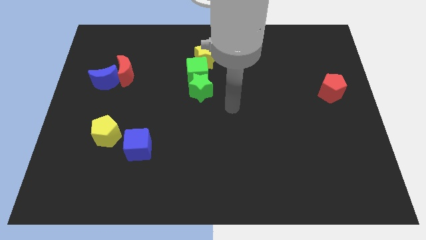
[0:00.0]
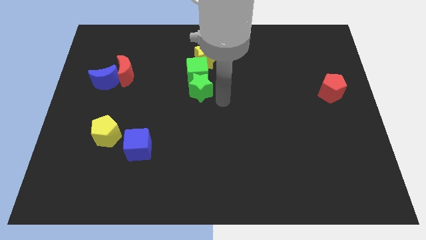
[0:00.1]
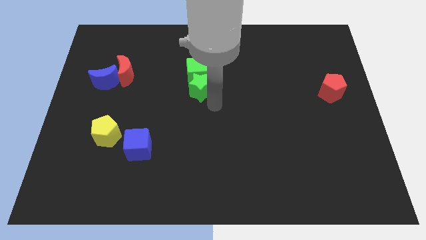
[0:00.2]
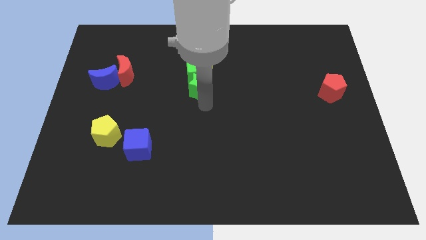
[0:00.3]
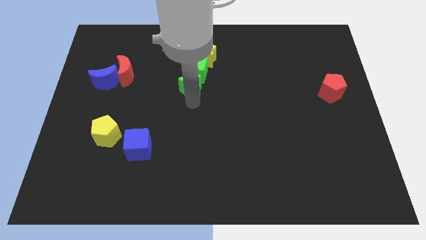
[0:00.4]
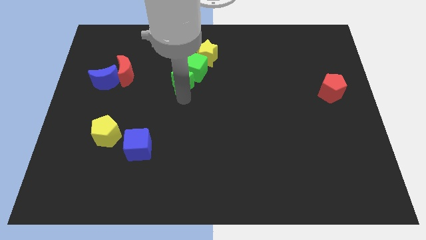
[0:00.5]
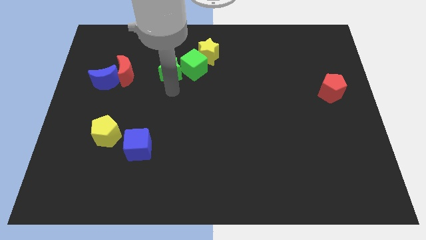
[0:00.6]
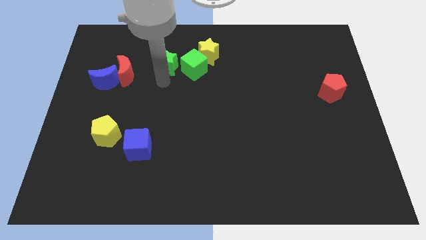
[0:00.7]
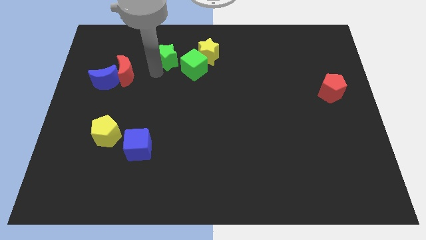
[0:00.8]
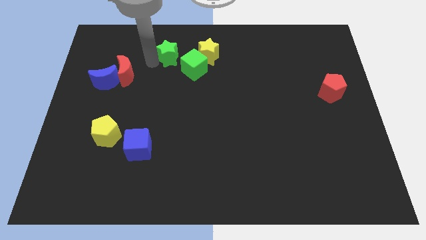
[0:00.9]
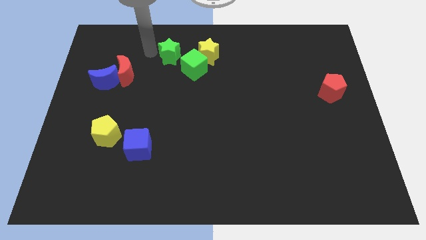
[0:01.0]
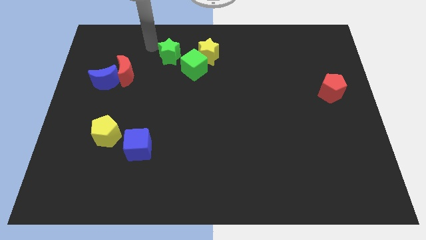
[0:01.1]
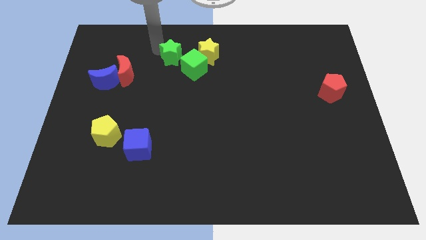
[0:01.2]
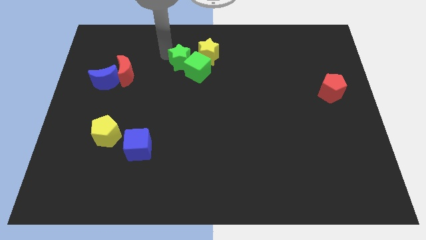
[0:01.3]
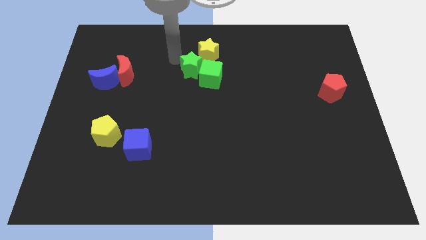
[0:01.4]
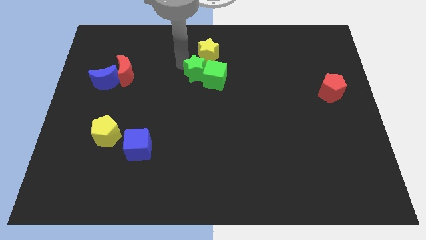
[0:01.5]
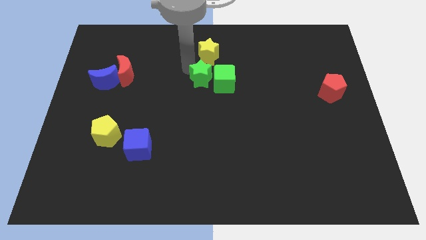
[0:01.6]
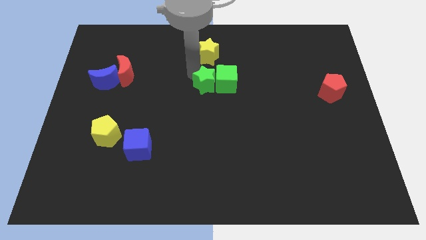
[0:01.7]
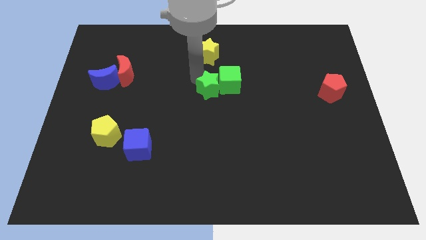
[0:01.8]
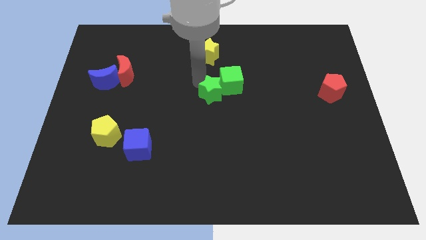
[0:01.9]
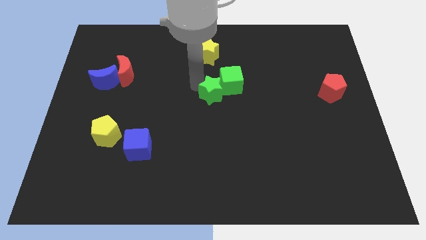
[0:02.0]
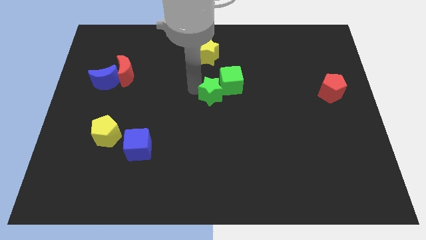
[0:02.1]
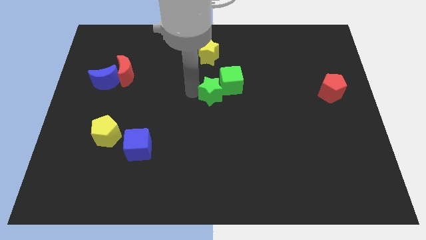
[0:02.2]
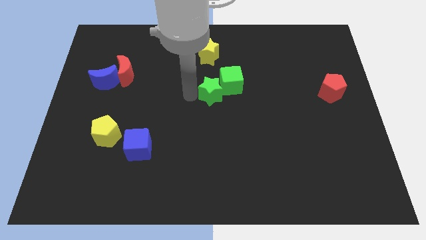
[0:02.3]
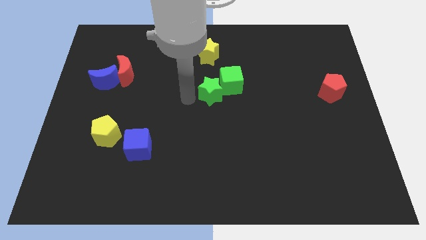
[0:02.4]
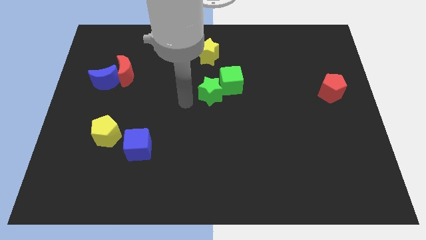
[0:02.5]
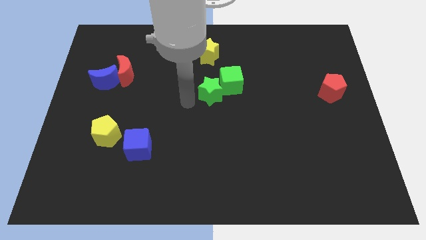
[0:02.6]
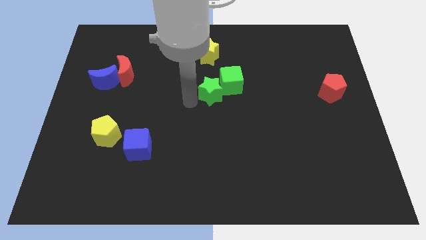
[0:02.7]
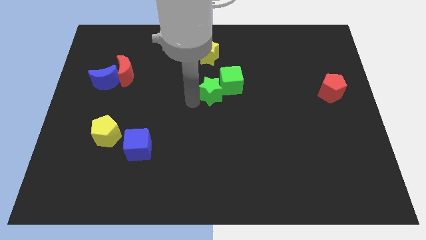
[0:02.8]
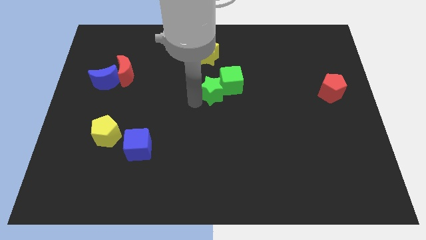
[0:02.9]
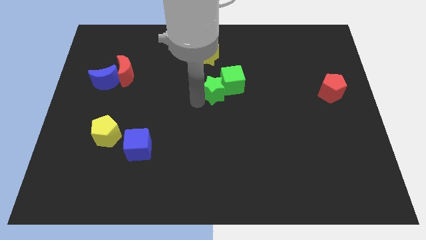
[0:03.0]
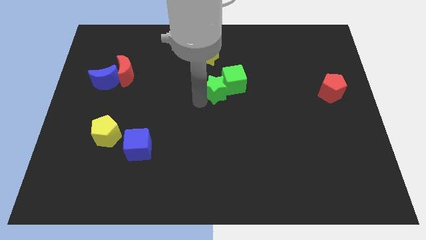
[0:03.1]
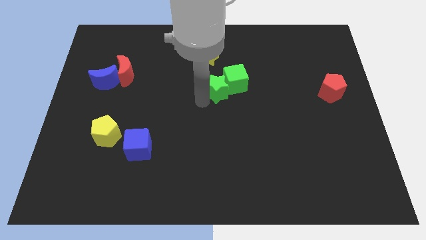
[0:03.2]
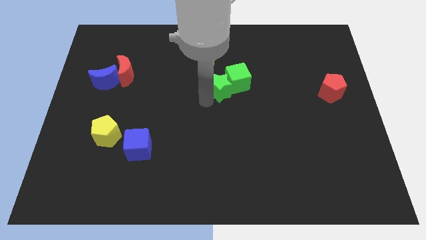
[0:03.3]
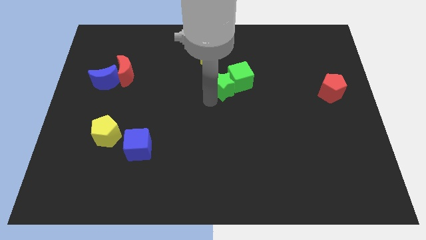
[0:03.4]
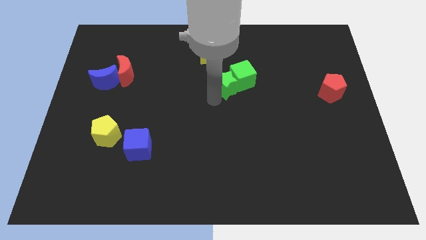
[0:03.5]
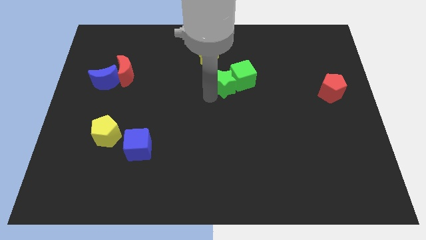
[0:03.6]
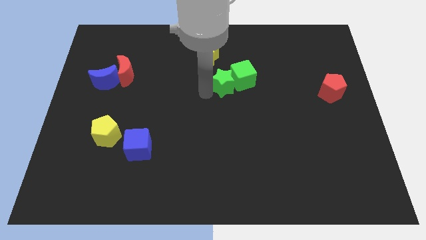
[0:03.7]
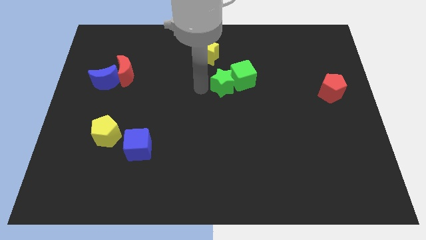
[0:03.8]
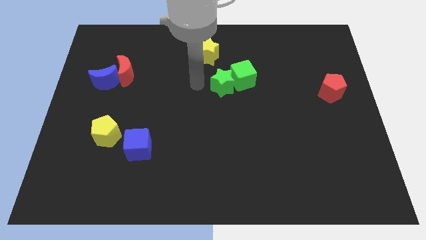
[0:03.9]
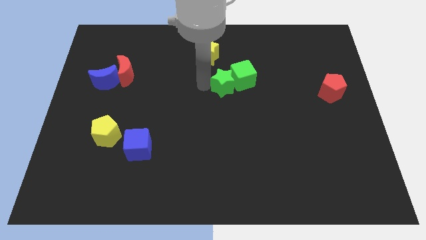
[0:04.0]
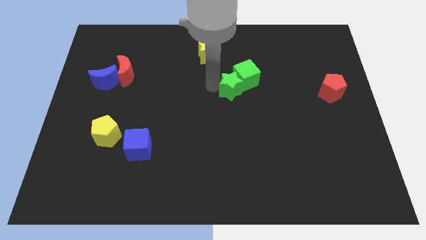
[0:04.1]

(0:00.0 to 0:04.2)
slightly slide the green star right

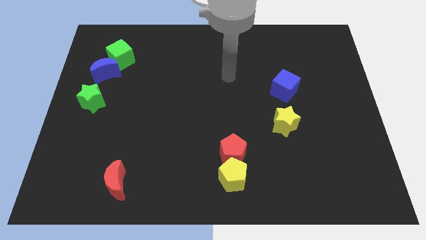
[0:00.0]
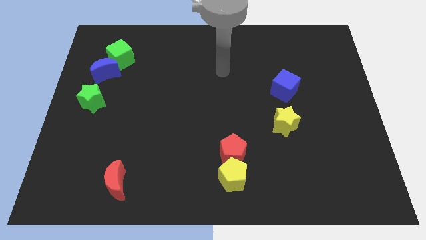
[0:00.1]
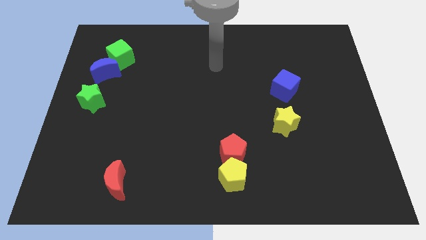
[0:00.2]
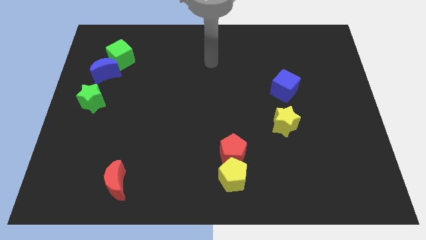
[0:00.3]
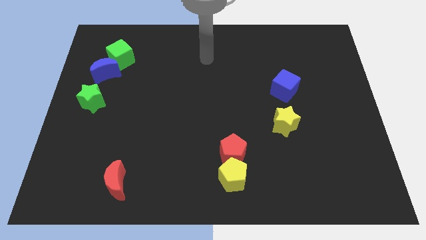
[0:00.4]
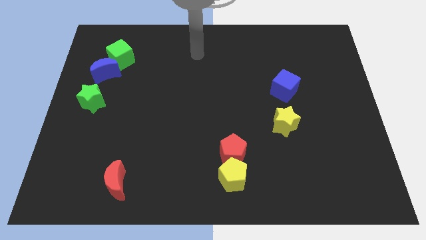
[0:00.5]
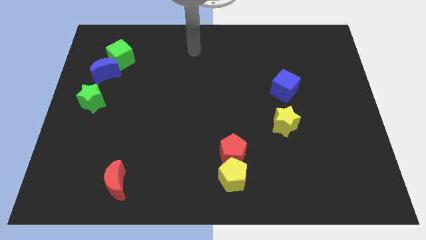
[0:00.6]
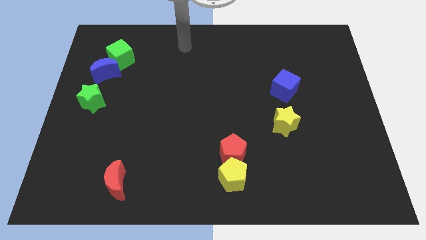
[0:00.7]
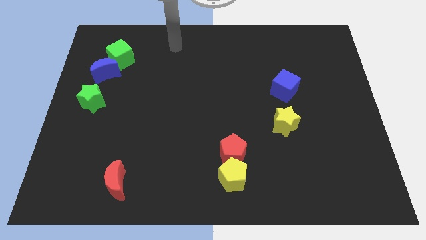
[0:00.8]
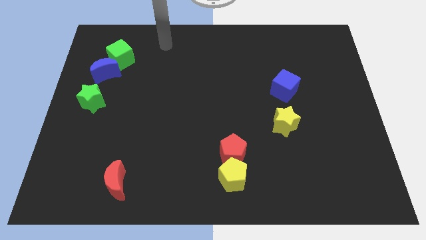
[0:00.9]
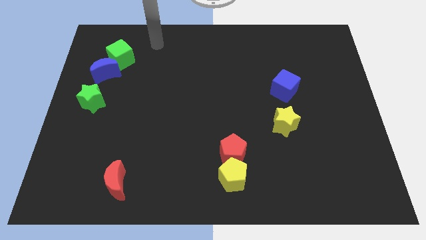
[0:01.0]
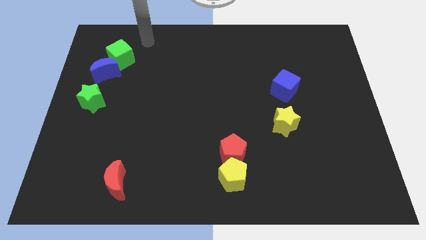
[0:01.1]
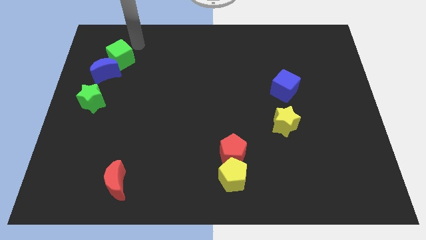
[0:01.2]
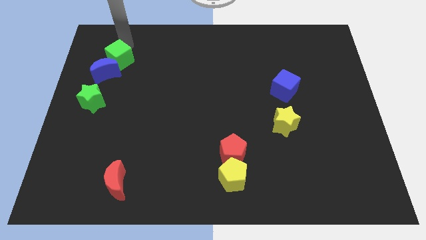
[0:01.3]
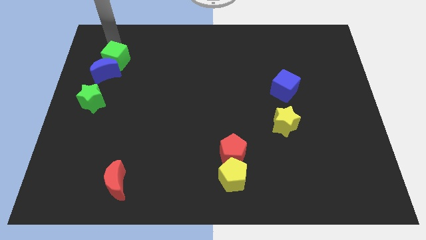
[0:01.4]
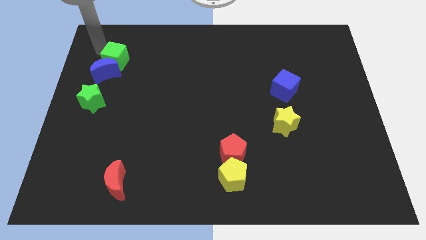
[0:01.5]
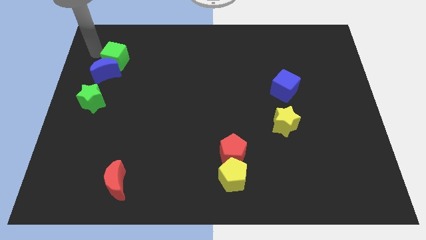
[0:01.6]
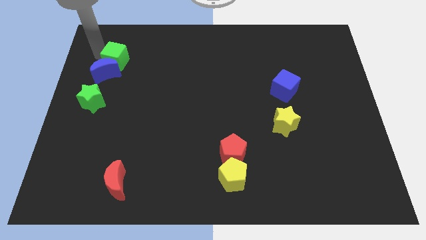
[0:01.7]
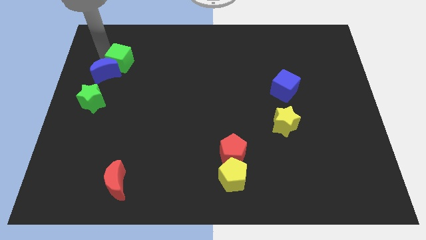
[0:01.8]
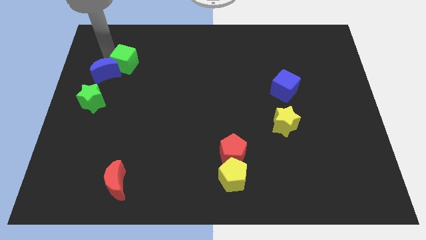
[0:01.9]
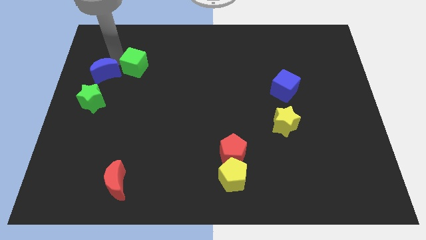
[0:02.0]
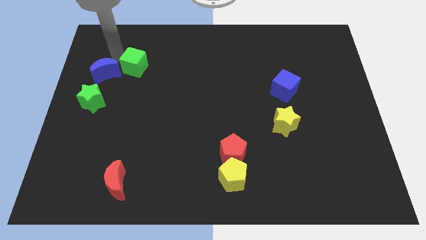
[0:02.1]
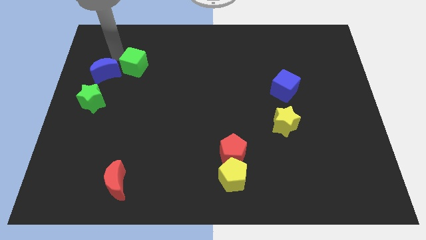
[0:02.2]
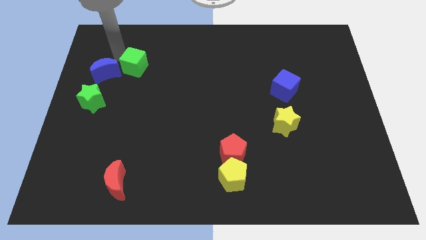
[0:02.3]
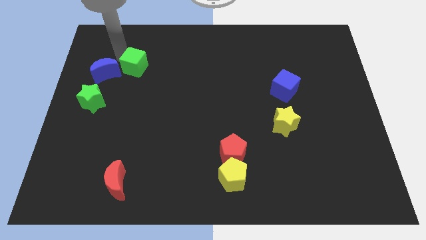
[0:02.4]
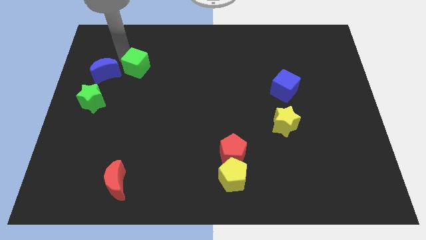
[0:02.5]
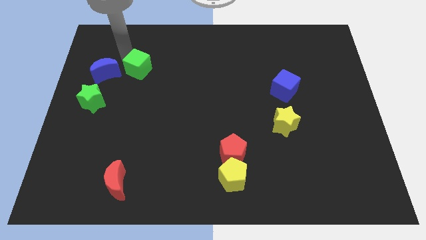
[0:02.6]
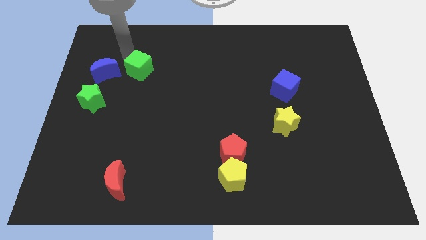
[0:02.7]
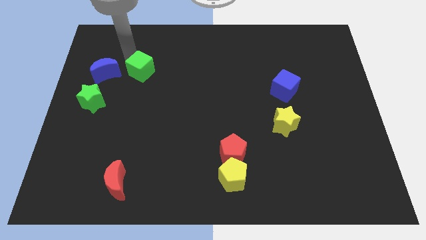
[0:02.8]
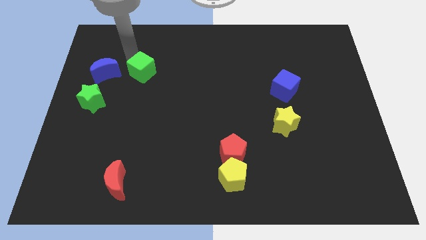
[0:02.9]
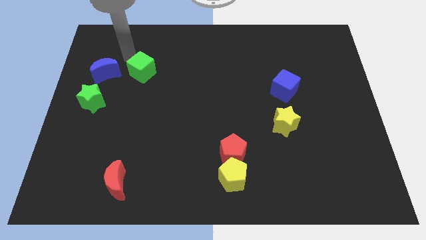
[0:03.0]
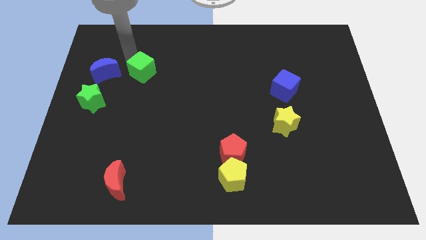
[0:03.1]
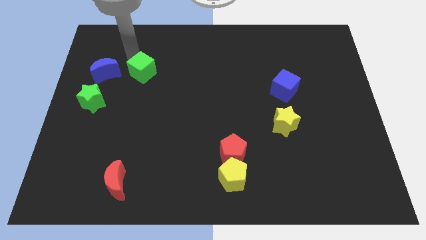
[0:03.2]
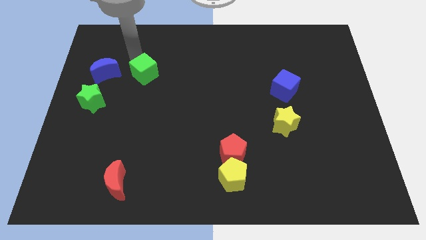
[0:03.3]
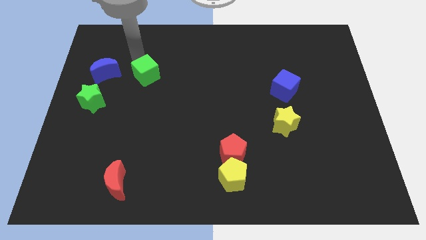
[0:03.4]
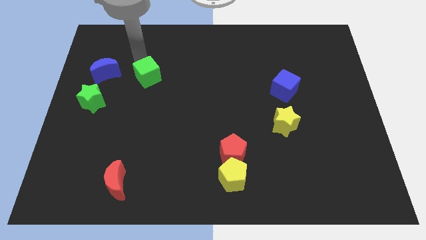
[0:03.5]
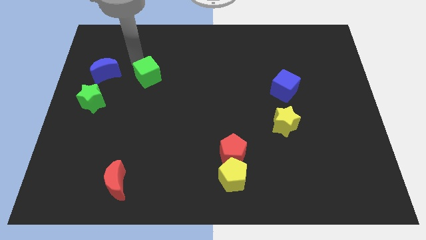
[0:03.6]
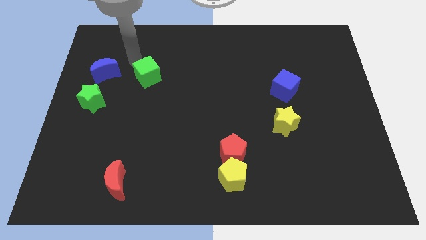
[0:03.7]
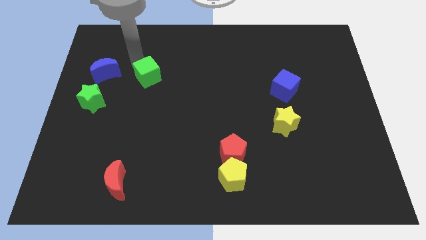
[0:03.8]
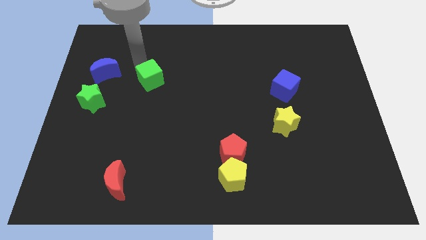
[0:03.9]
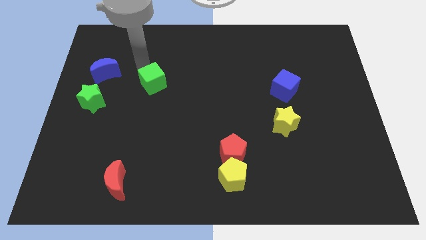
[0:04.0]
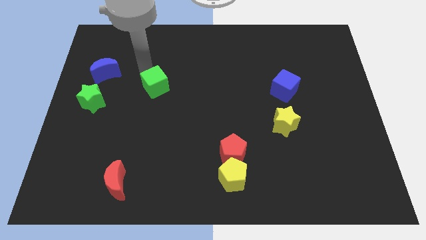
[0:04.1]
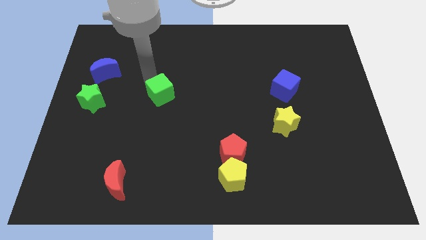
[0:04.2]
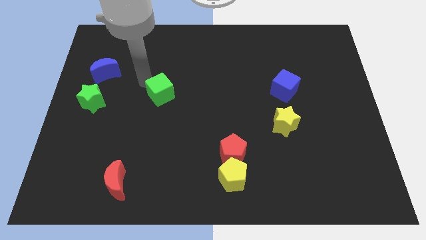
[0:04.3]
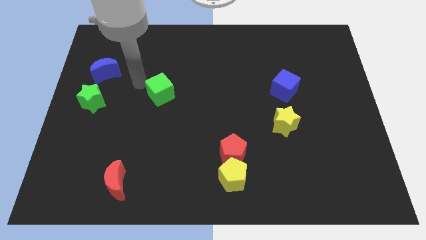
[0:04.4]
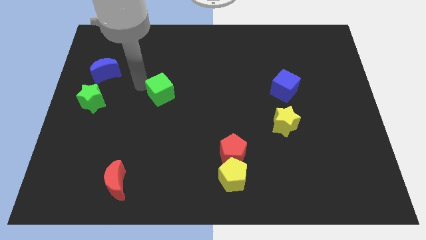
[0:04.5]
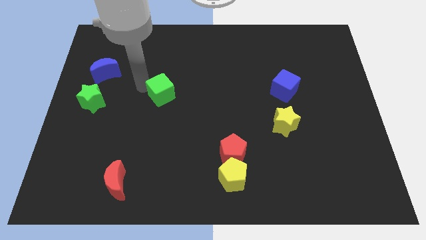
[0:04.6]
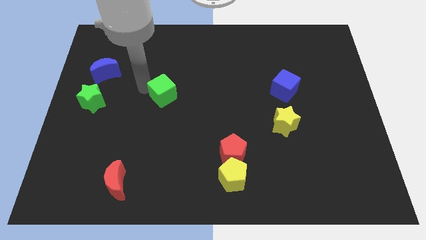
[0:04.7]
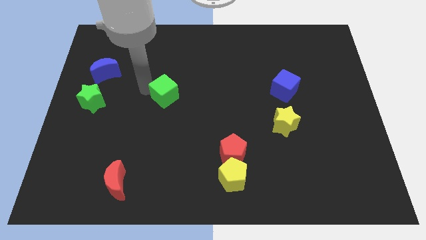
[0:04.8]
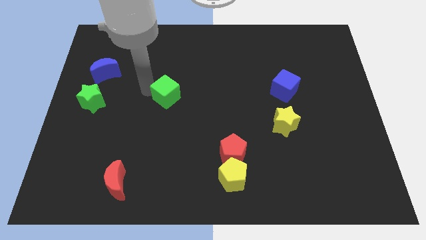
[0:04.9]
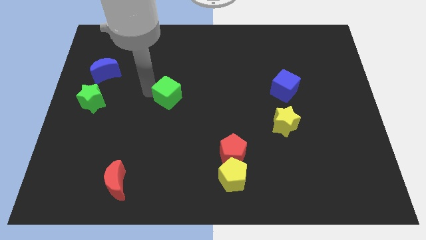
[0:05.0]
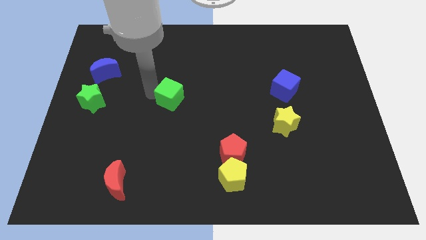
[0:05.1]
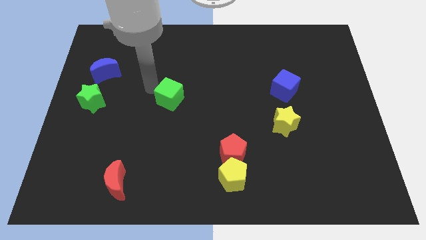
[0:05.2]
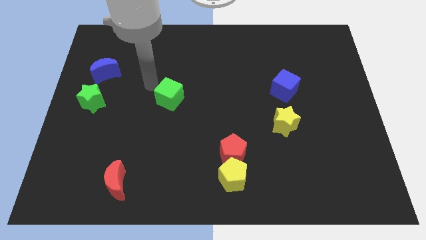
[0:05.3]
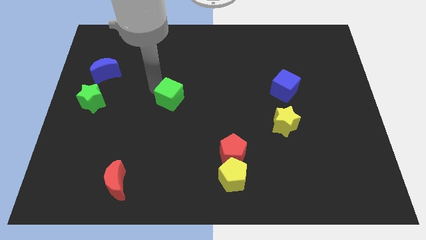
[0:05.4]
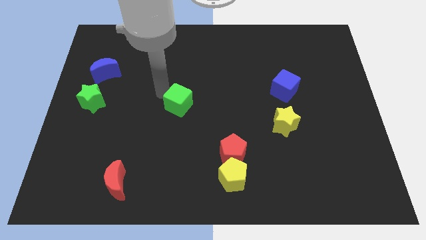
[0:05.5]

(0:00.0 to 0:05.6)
slide the green cube down and to the right diagonally
